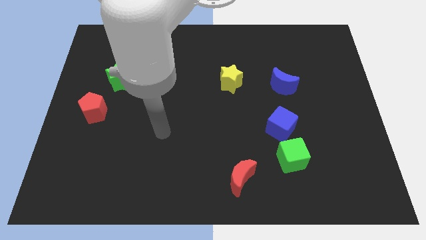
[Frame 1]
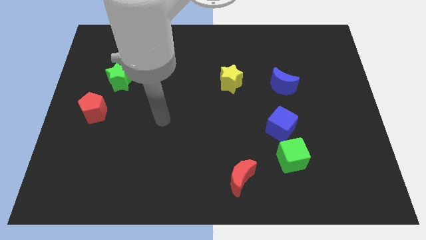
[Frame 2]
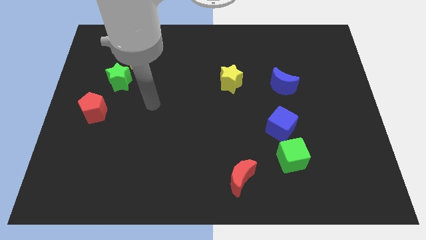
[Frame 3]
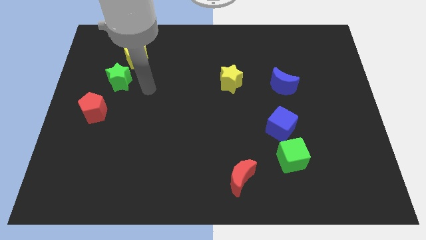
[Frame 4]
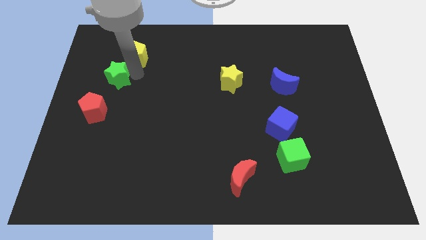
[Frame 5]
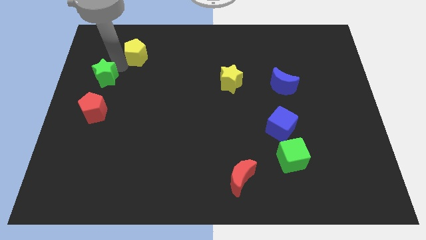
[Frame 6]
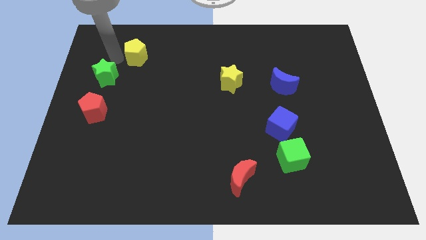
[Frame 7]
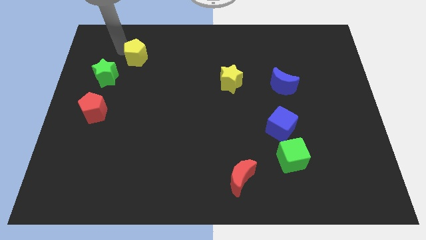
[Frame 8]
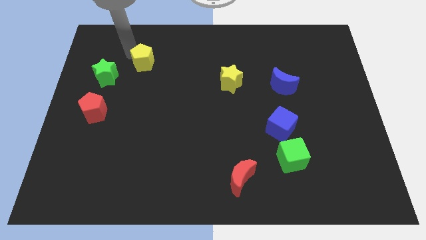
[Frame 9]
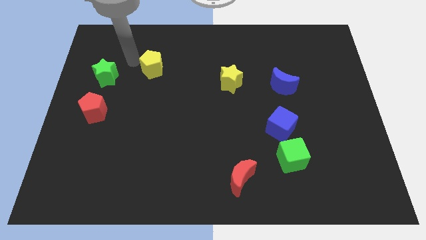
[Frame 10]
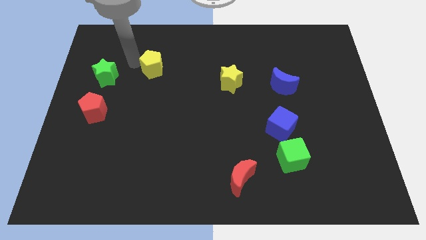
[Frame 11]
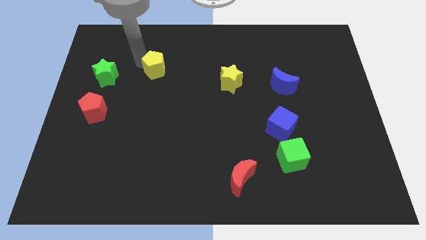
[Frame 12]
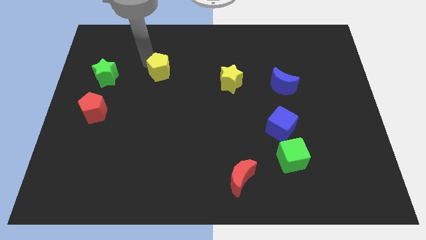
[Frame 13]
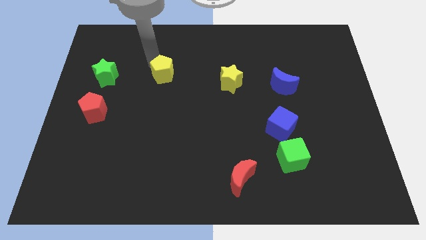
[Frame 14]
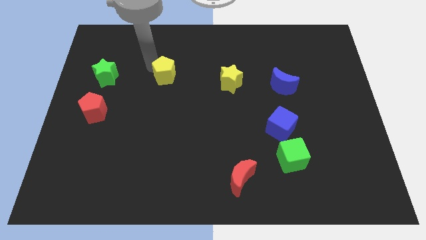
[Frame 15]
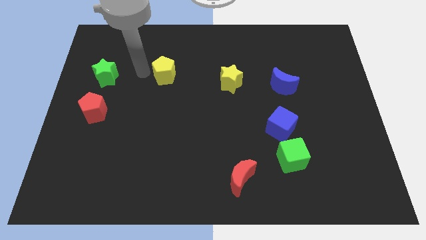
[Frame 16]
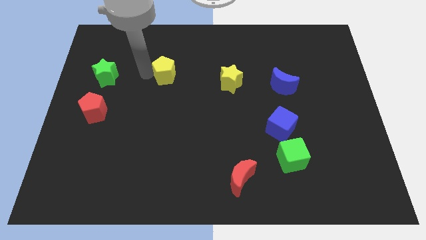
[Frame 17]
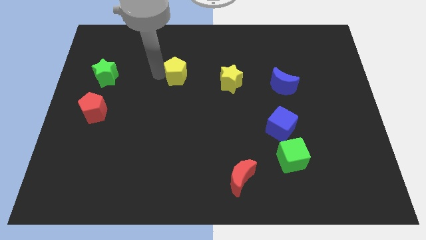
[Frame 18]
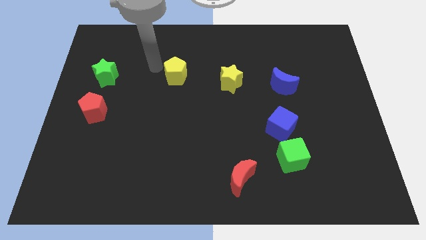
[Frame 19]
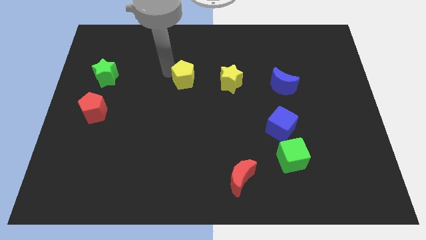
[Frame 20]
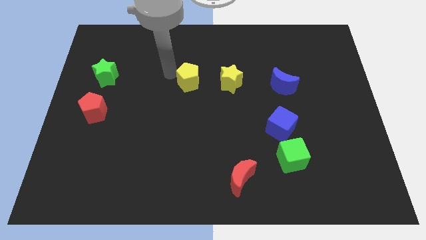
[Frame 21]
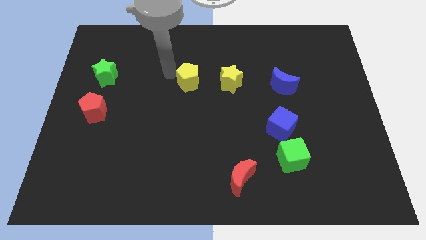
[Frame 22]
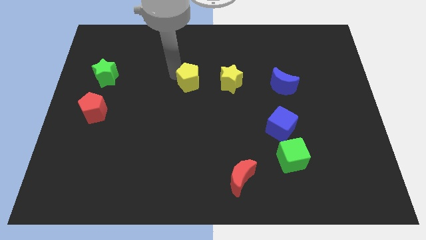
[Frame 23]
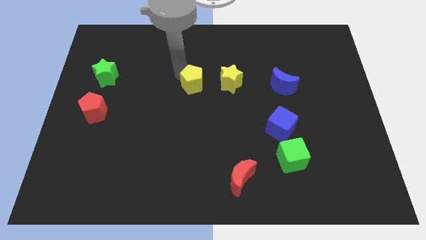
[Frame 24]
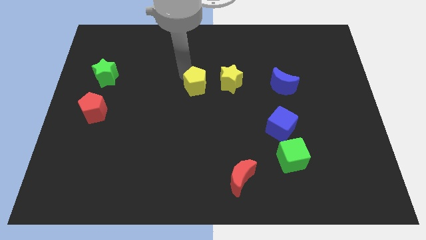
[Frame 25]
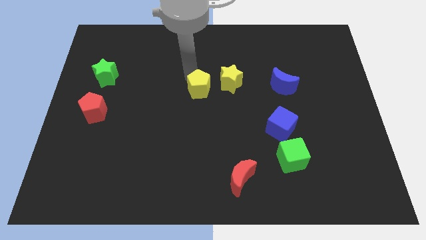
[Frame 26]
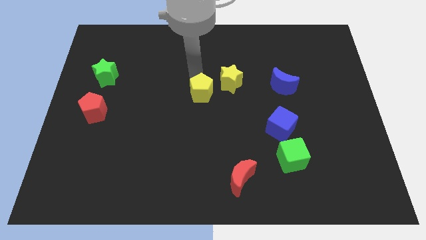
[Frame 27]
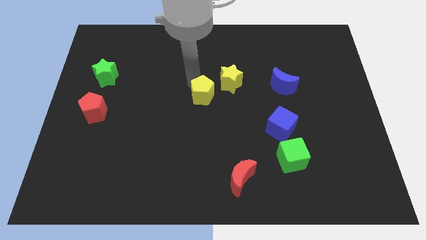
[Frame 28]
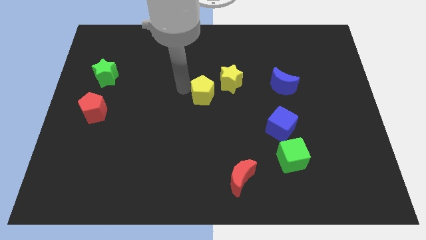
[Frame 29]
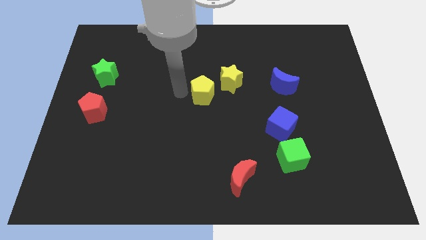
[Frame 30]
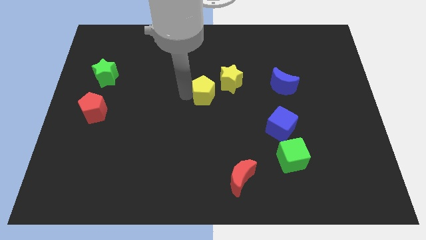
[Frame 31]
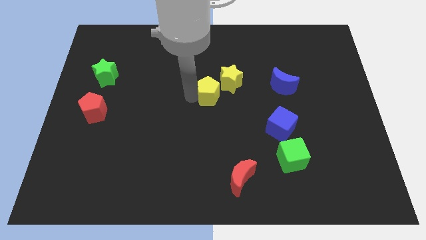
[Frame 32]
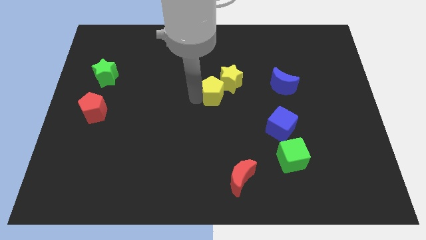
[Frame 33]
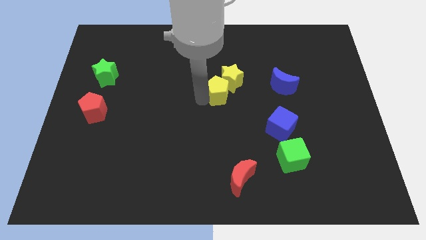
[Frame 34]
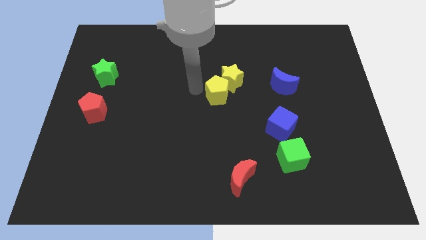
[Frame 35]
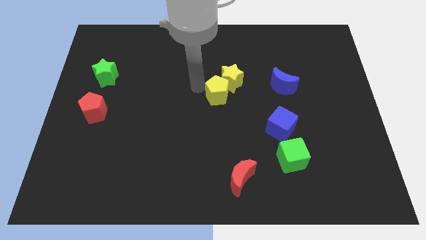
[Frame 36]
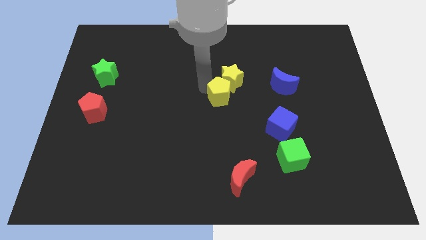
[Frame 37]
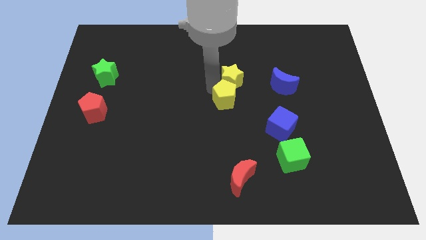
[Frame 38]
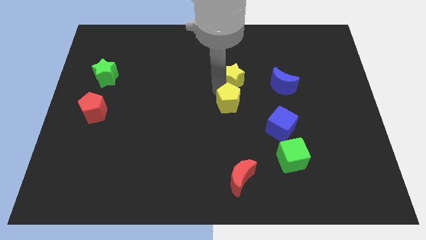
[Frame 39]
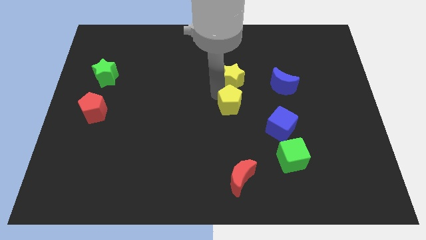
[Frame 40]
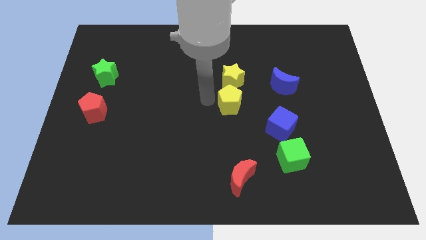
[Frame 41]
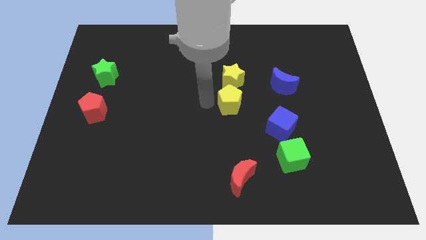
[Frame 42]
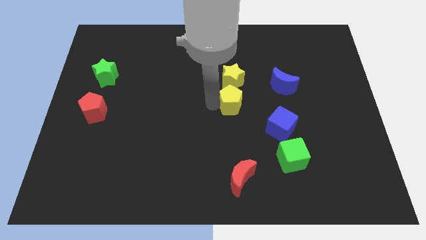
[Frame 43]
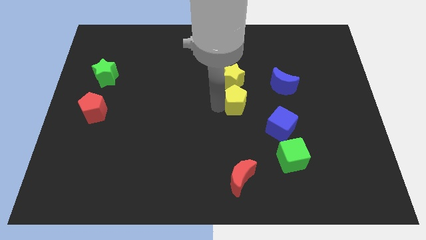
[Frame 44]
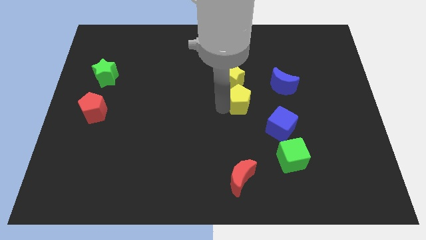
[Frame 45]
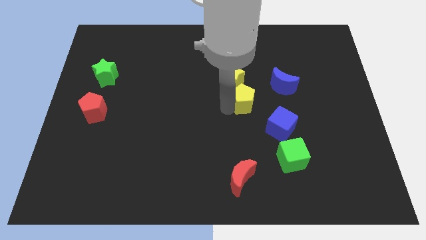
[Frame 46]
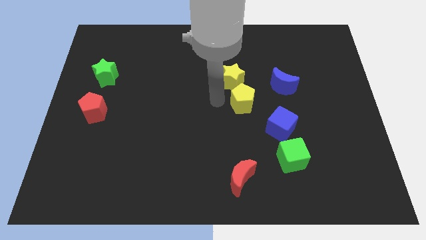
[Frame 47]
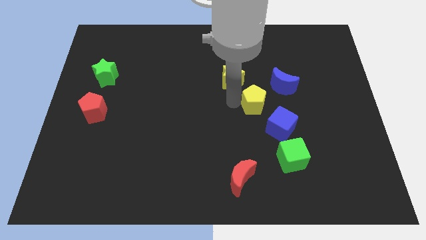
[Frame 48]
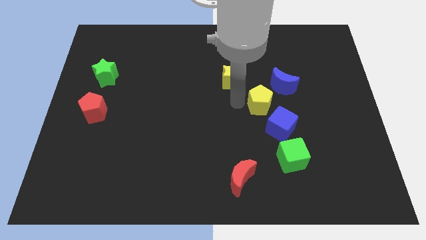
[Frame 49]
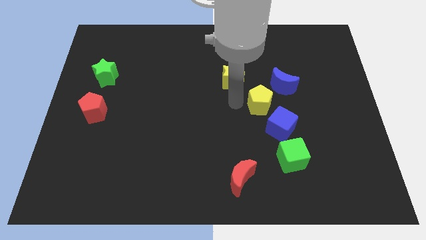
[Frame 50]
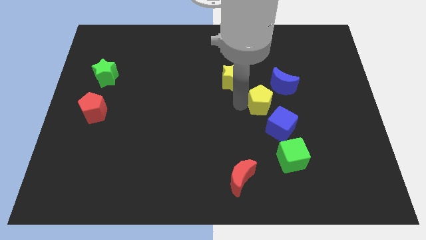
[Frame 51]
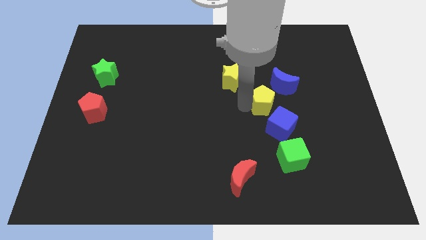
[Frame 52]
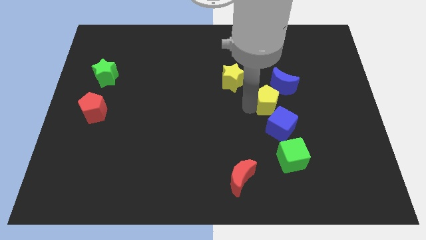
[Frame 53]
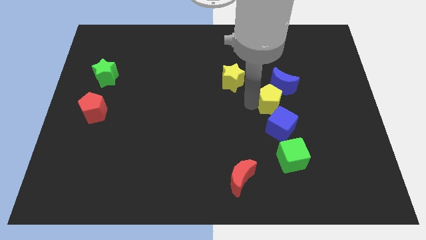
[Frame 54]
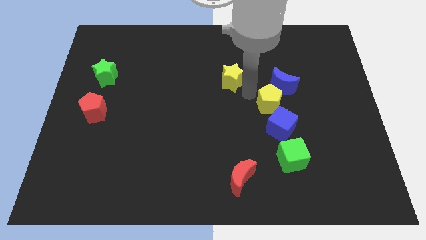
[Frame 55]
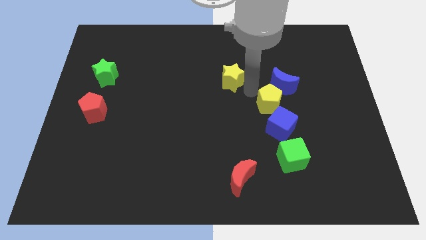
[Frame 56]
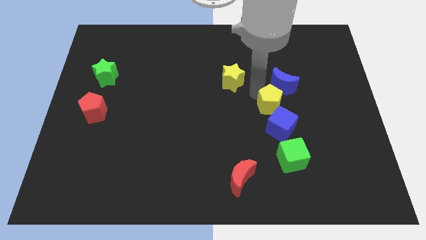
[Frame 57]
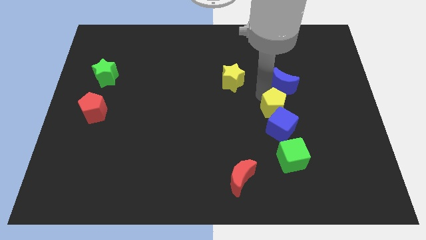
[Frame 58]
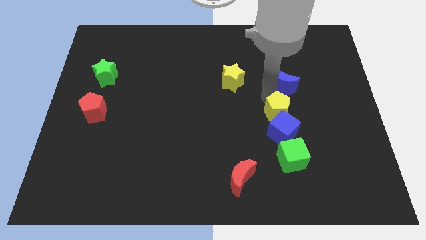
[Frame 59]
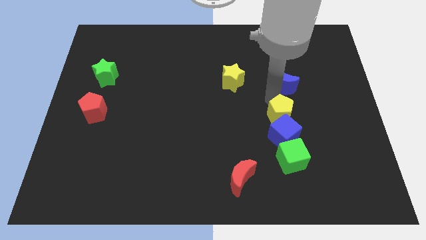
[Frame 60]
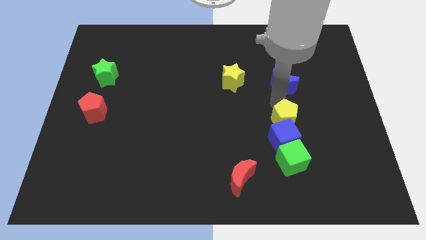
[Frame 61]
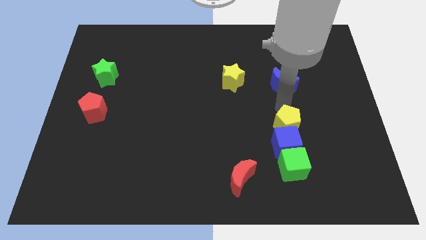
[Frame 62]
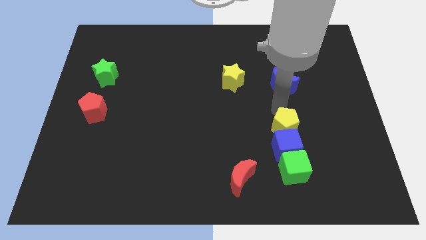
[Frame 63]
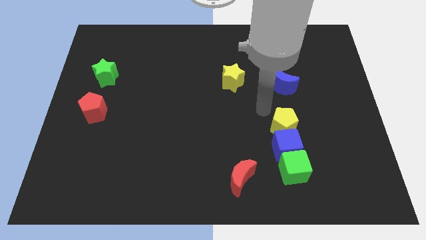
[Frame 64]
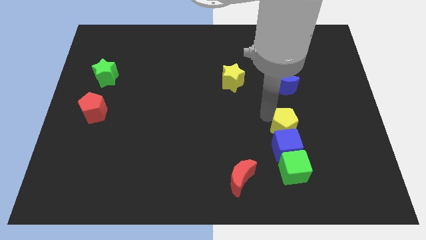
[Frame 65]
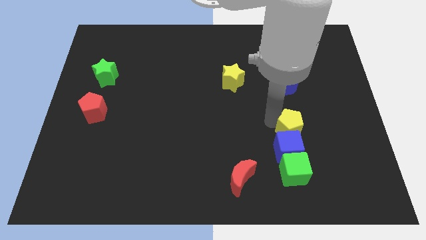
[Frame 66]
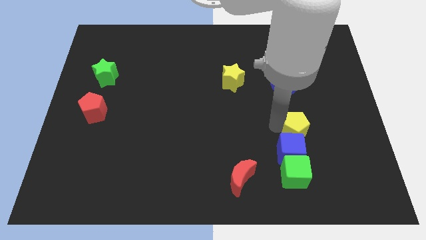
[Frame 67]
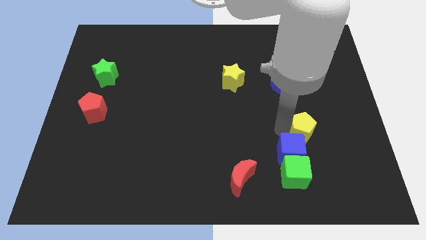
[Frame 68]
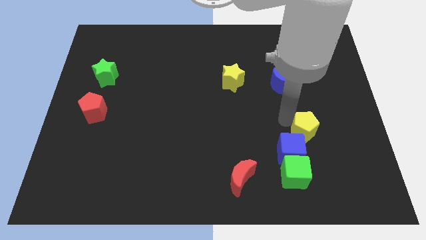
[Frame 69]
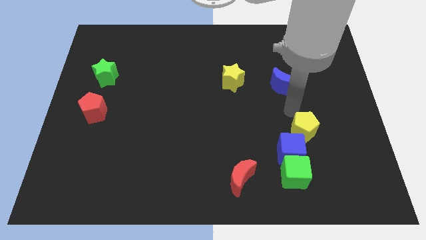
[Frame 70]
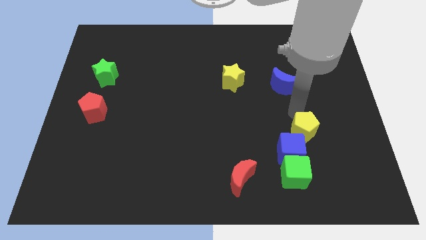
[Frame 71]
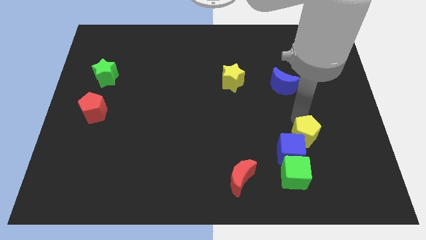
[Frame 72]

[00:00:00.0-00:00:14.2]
push the yellow pentagon diagonally up and to the right of the green cube
